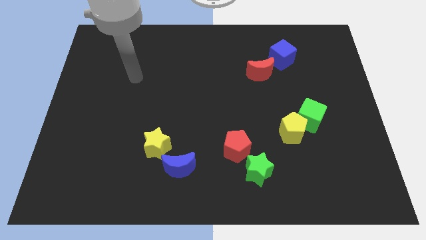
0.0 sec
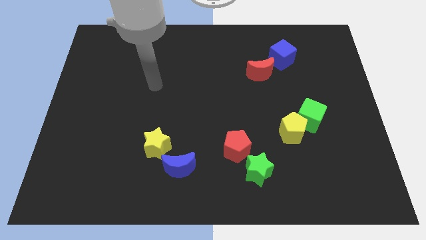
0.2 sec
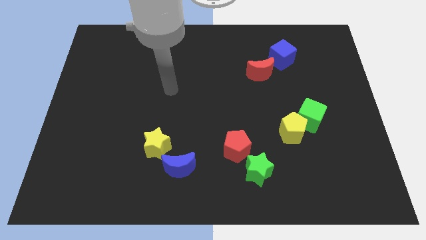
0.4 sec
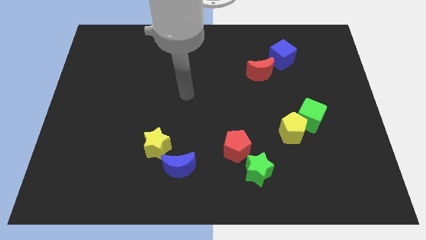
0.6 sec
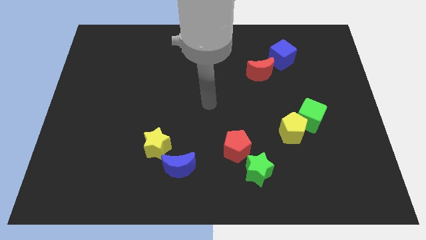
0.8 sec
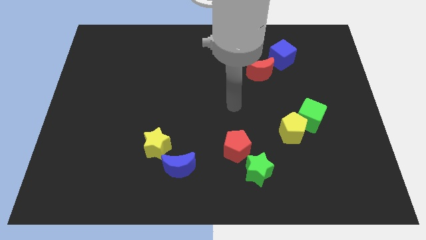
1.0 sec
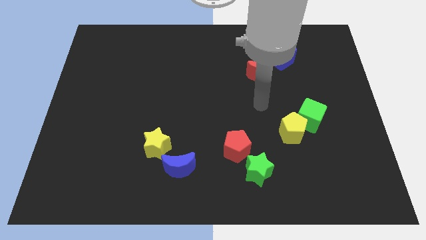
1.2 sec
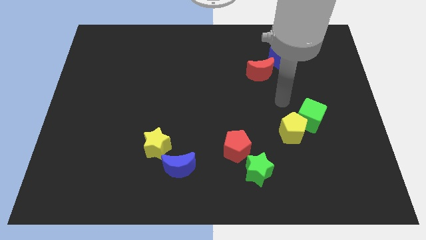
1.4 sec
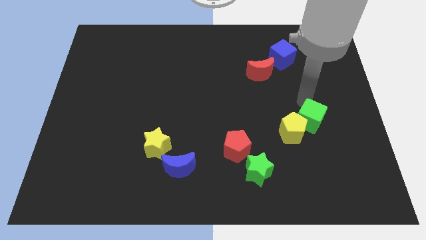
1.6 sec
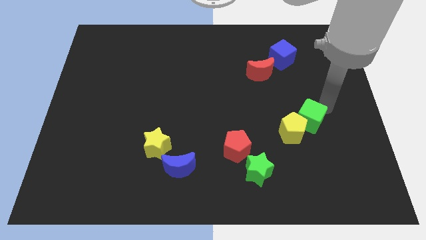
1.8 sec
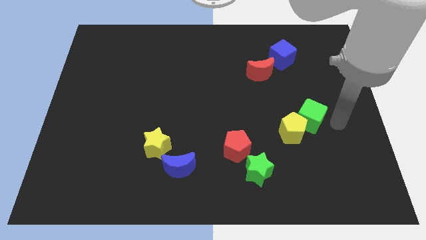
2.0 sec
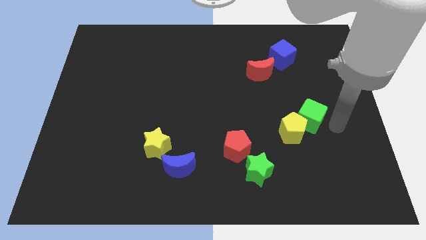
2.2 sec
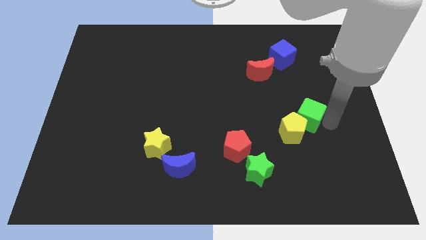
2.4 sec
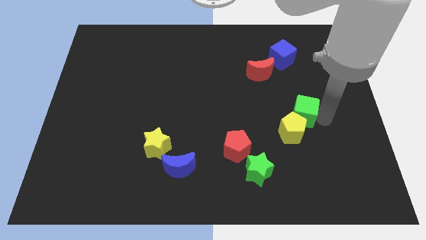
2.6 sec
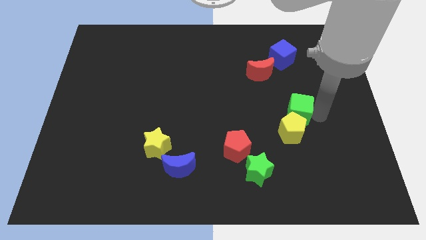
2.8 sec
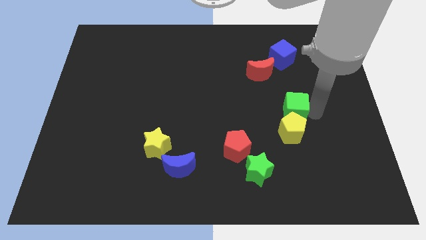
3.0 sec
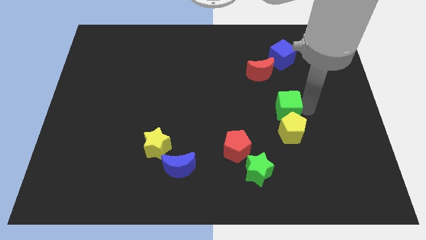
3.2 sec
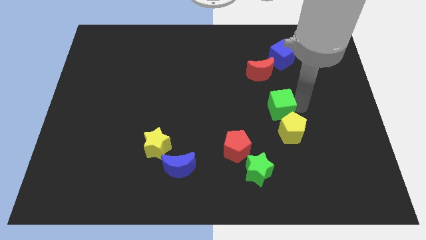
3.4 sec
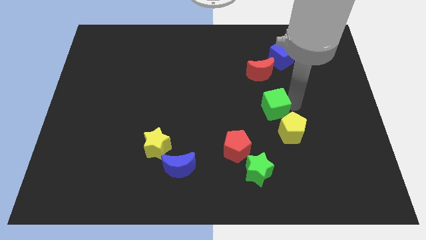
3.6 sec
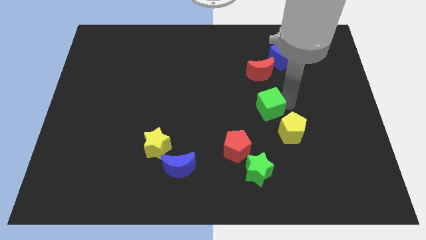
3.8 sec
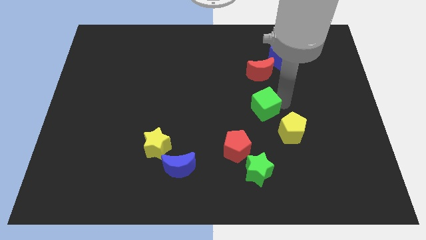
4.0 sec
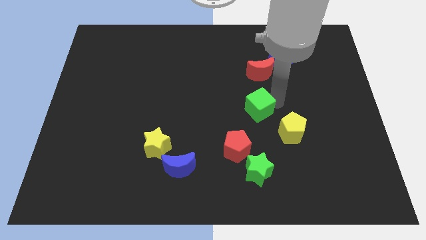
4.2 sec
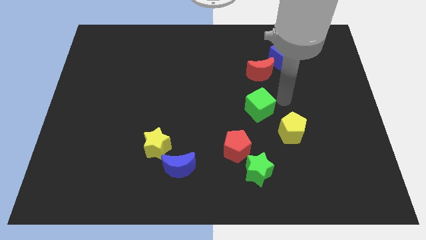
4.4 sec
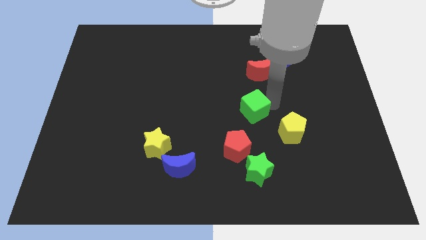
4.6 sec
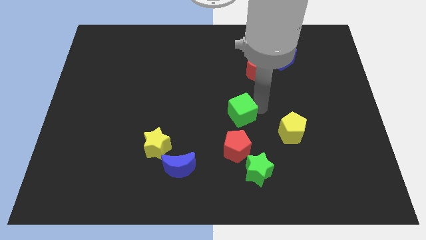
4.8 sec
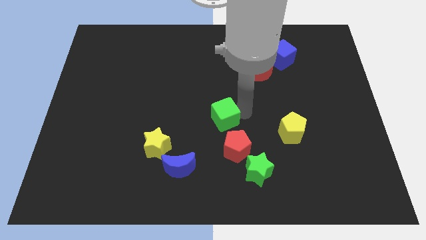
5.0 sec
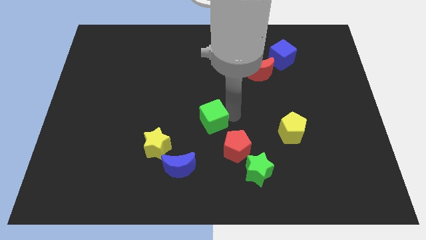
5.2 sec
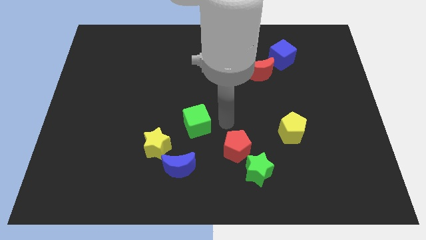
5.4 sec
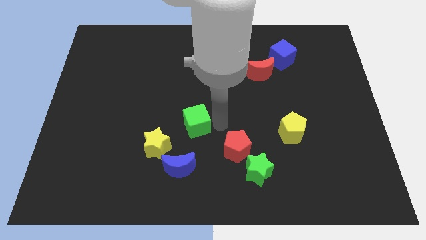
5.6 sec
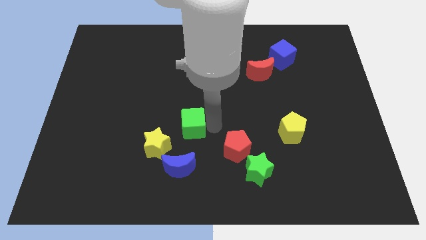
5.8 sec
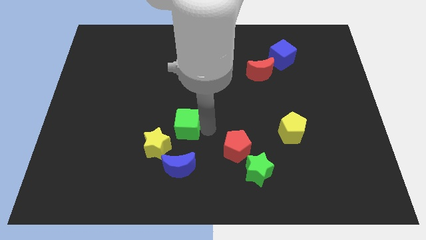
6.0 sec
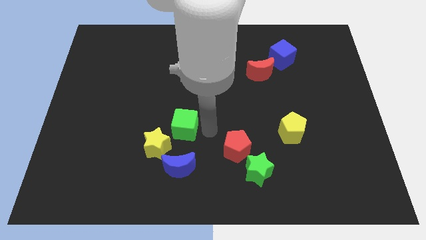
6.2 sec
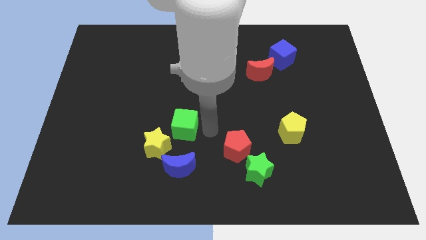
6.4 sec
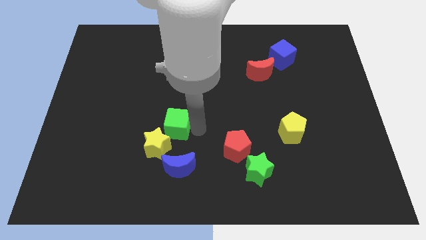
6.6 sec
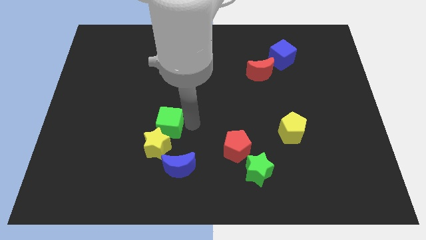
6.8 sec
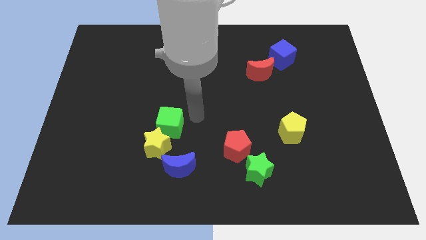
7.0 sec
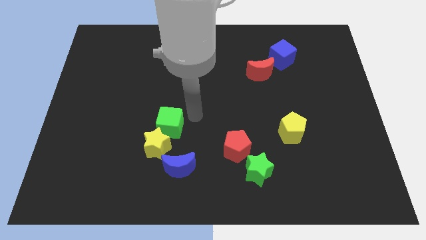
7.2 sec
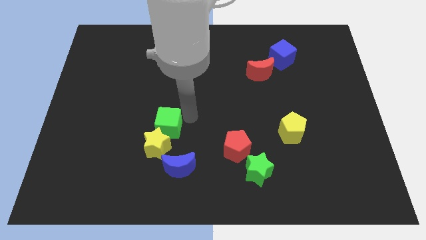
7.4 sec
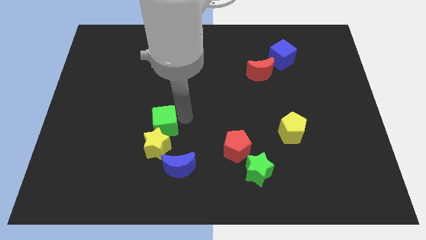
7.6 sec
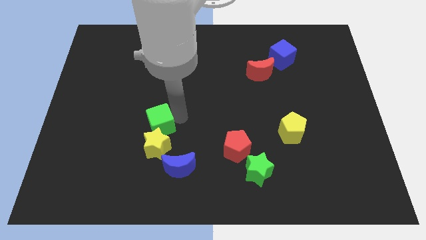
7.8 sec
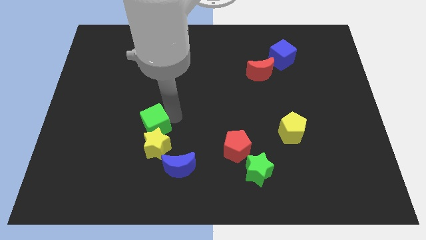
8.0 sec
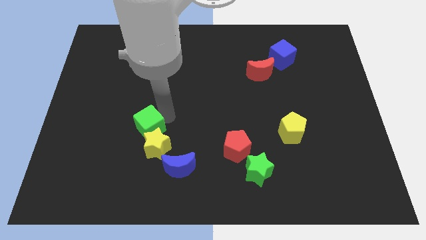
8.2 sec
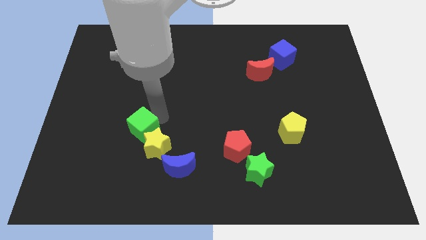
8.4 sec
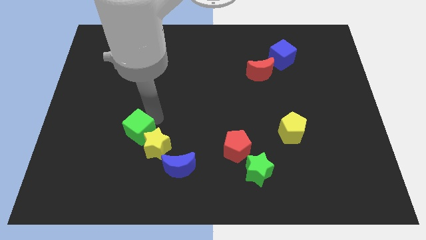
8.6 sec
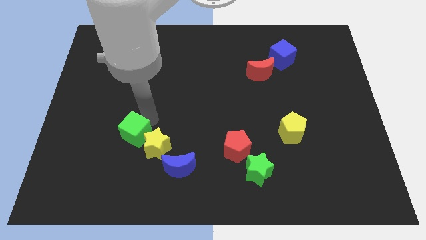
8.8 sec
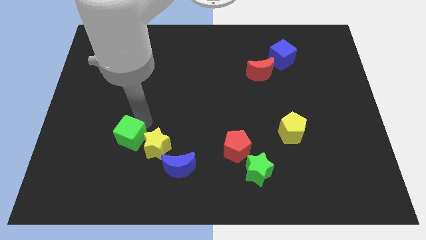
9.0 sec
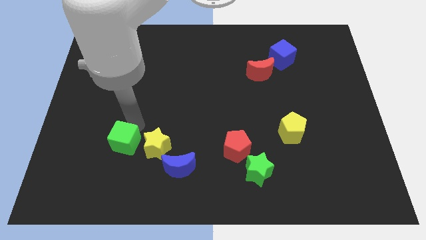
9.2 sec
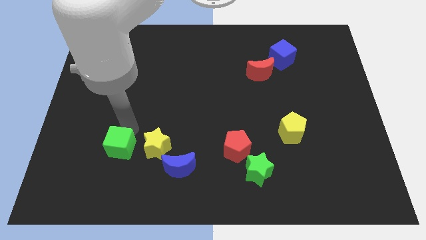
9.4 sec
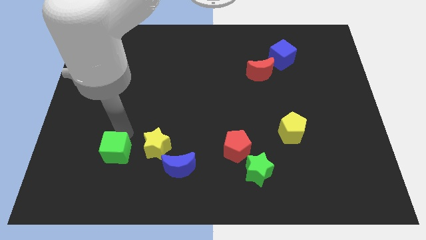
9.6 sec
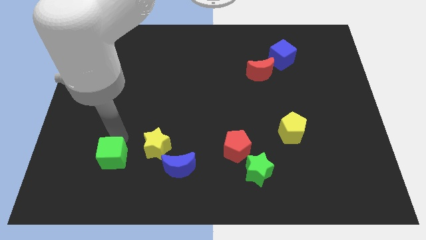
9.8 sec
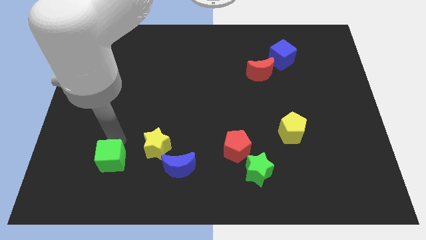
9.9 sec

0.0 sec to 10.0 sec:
move the green cube to the bottom left side of the yellow star

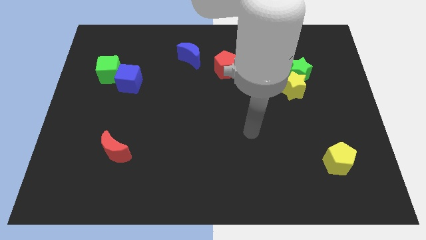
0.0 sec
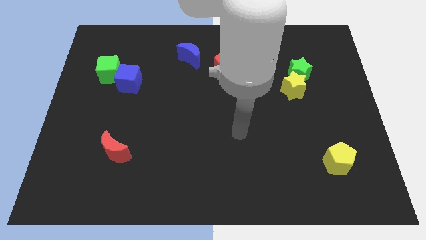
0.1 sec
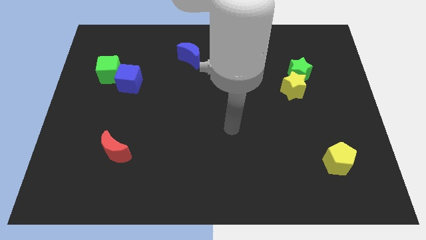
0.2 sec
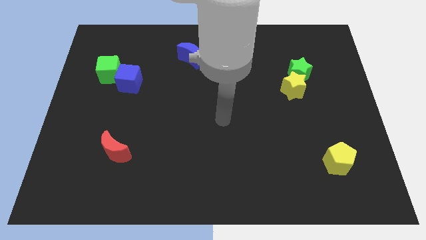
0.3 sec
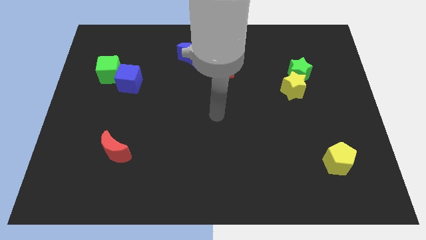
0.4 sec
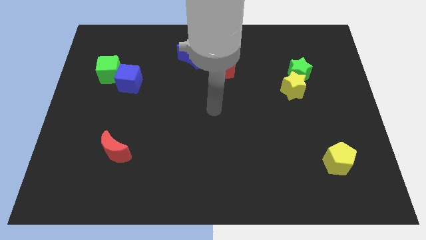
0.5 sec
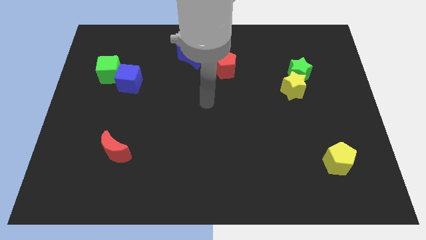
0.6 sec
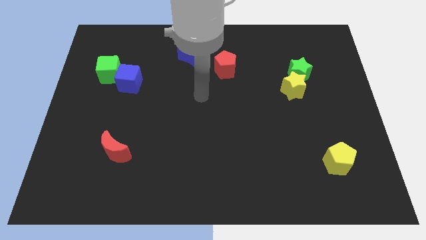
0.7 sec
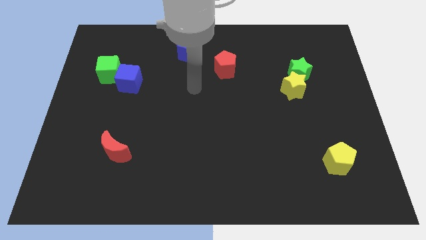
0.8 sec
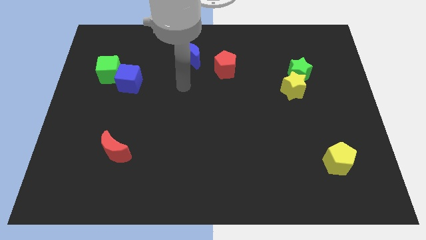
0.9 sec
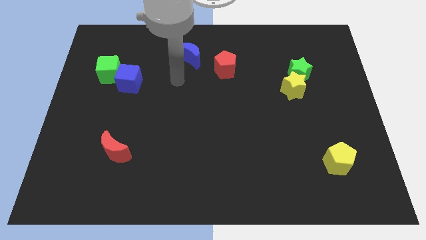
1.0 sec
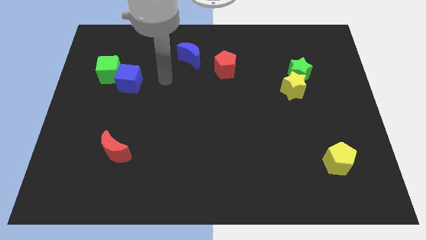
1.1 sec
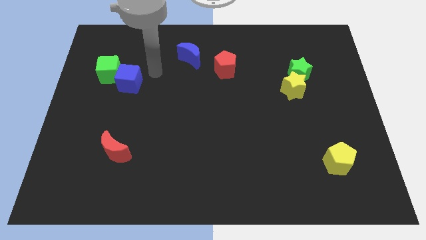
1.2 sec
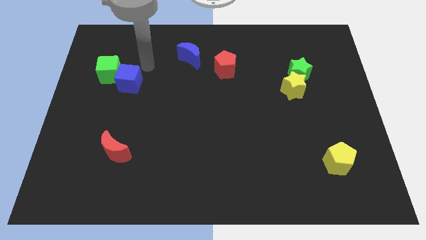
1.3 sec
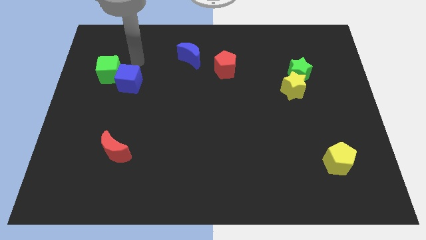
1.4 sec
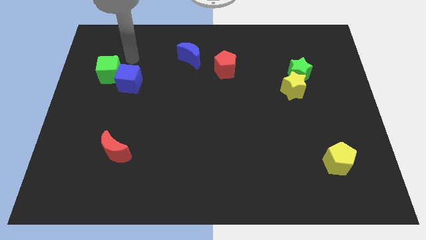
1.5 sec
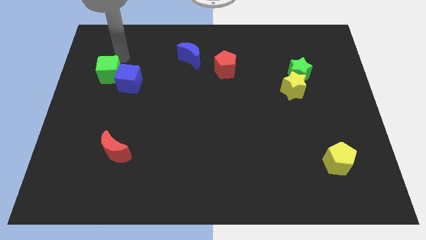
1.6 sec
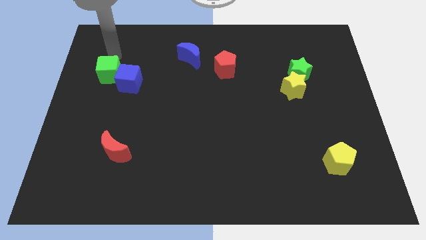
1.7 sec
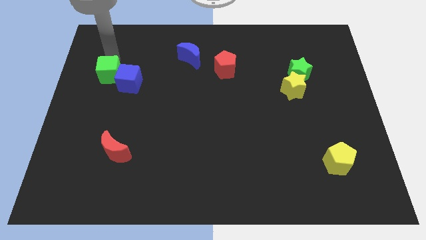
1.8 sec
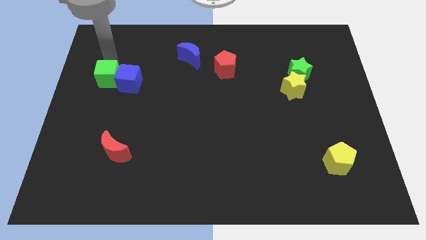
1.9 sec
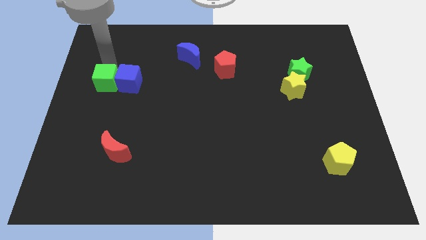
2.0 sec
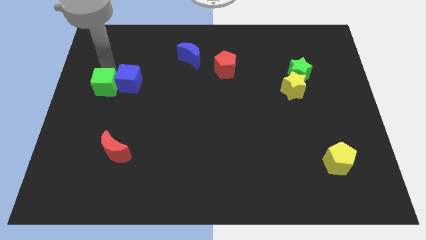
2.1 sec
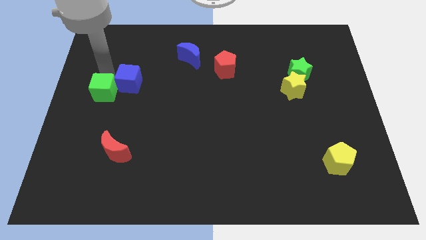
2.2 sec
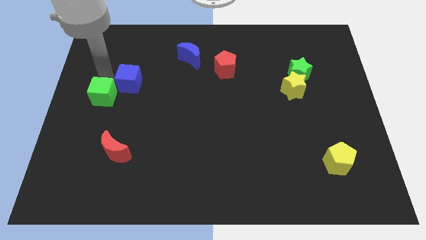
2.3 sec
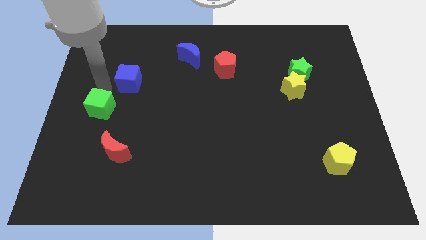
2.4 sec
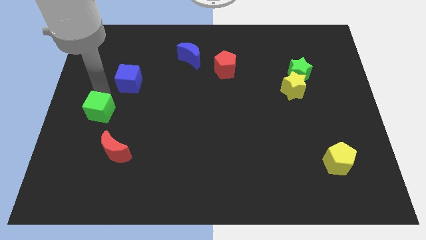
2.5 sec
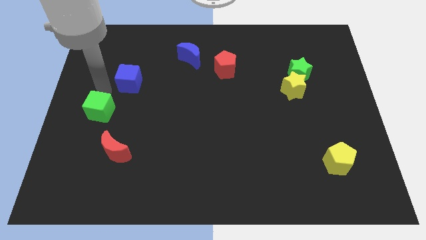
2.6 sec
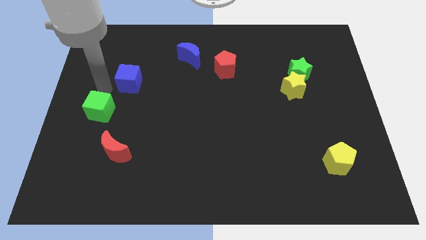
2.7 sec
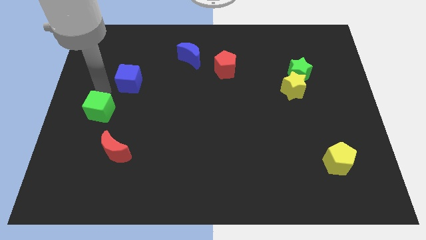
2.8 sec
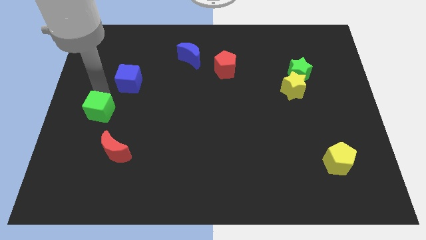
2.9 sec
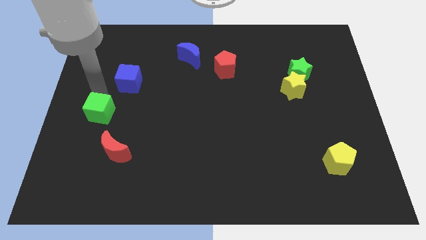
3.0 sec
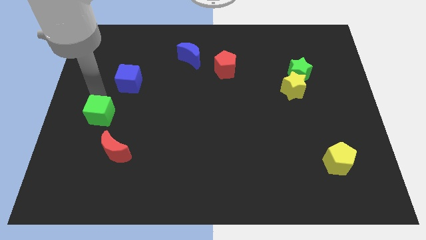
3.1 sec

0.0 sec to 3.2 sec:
slide the green cube to the top left side of the red moon
